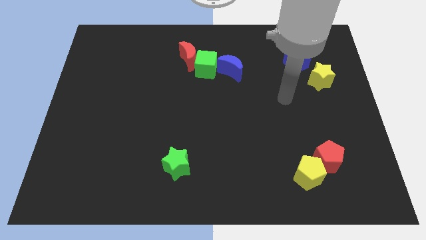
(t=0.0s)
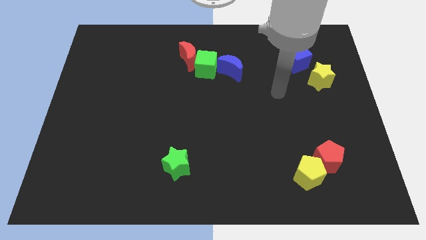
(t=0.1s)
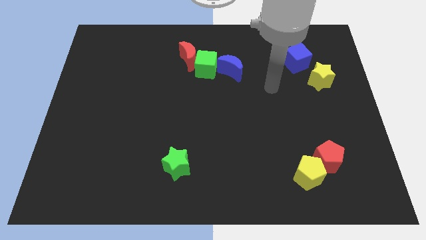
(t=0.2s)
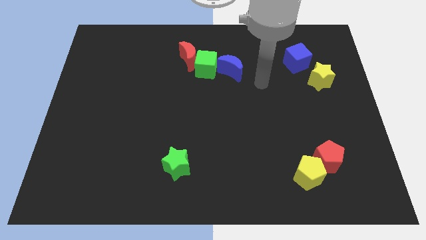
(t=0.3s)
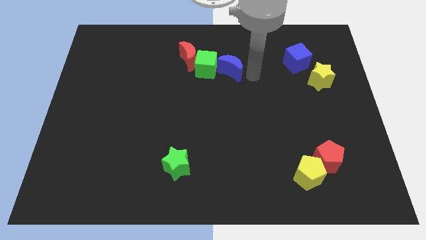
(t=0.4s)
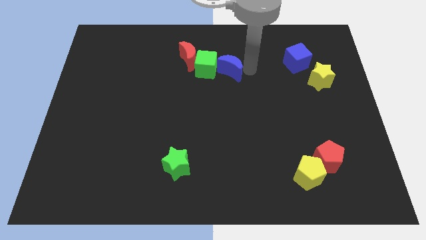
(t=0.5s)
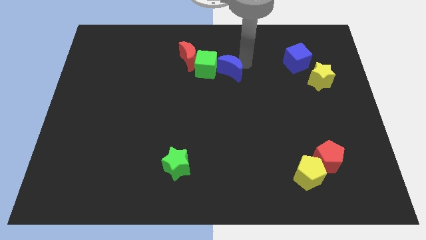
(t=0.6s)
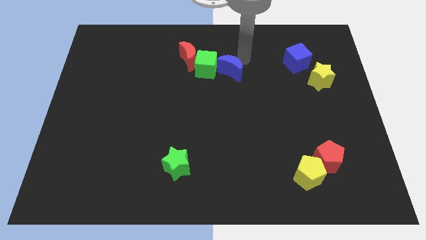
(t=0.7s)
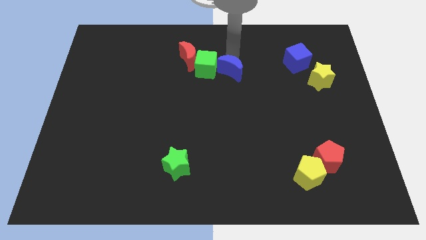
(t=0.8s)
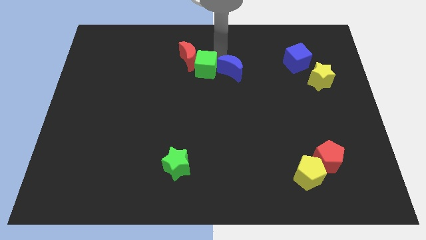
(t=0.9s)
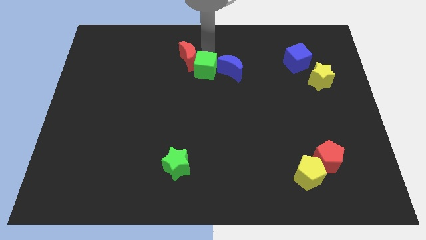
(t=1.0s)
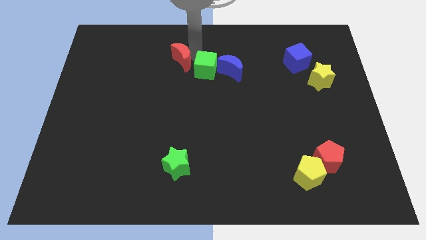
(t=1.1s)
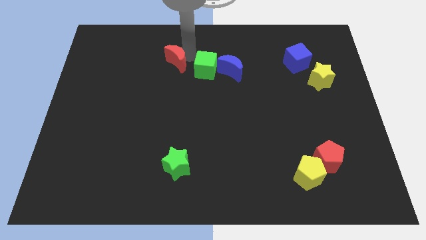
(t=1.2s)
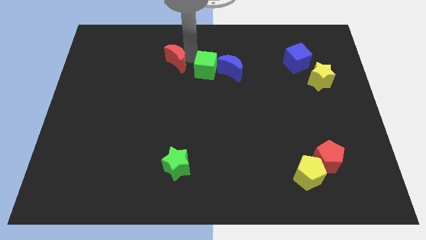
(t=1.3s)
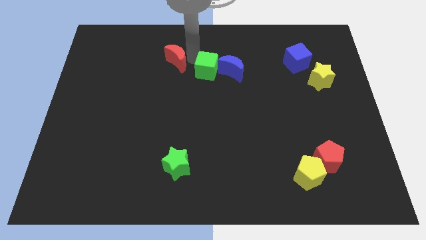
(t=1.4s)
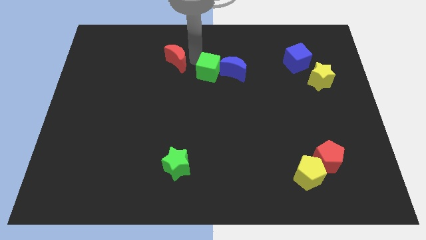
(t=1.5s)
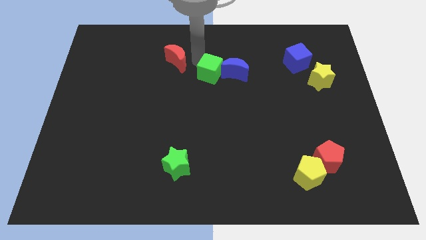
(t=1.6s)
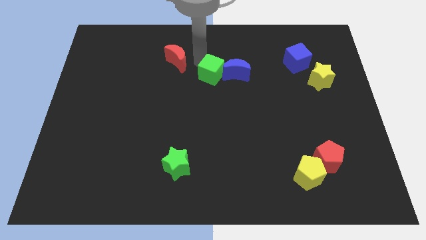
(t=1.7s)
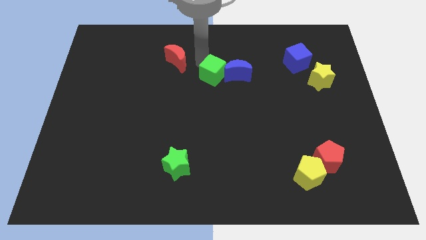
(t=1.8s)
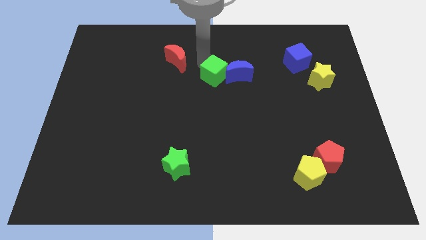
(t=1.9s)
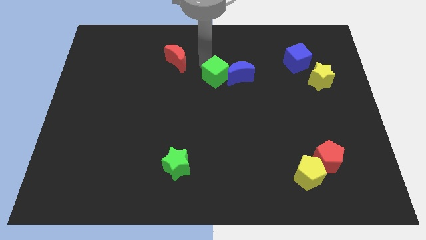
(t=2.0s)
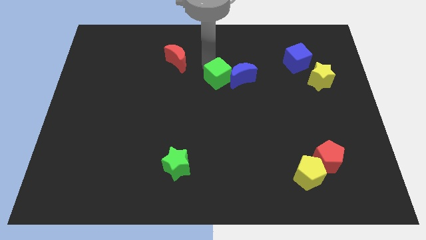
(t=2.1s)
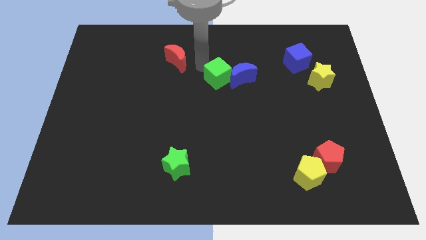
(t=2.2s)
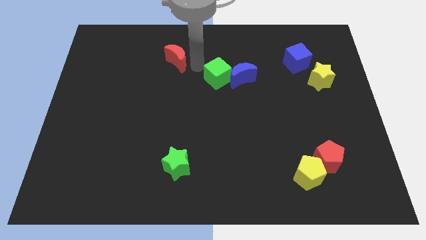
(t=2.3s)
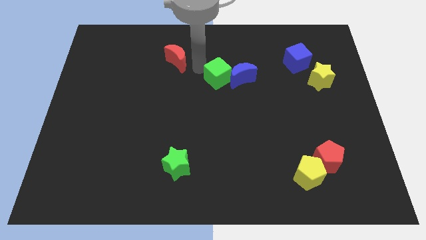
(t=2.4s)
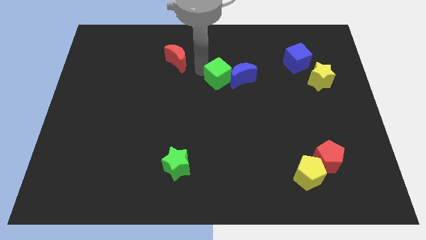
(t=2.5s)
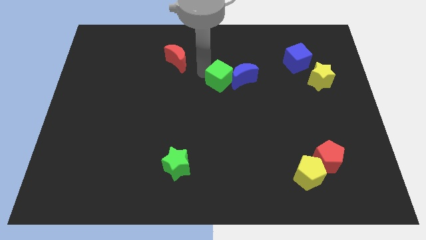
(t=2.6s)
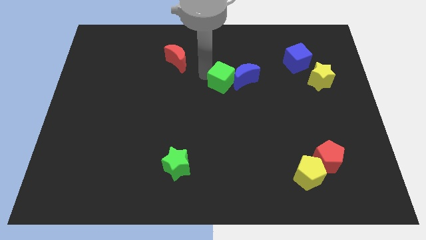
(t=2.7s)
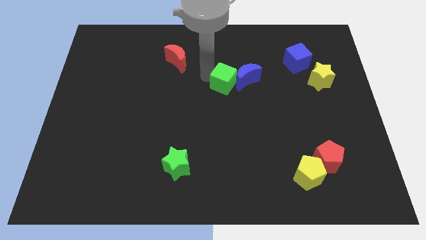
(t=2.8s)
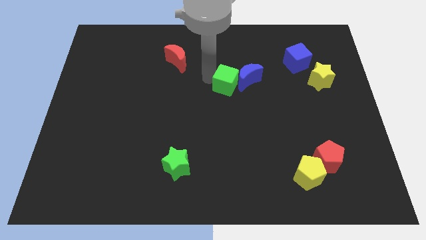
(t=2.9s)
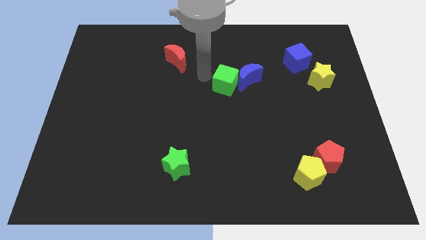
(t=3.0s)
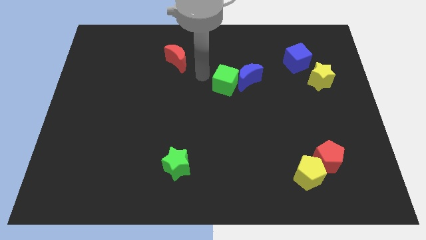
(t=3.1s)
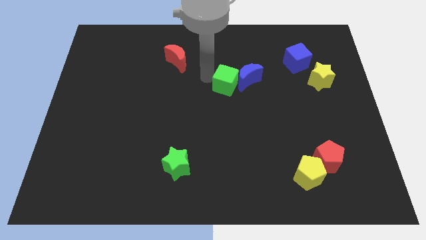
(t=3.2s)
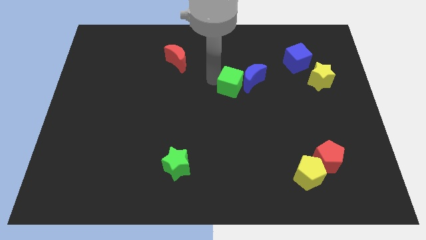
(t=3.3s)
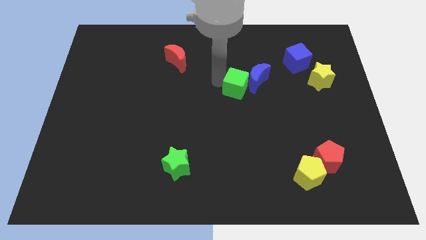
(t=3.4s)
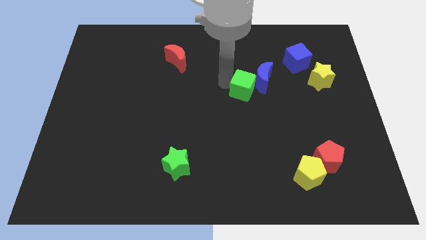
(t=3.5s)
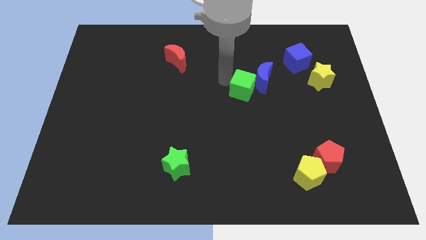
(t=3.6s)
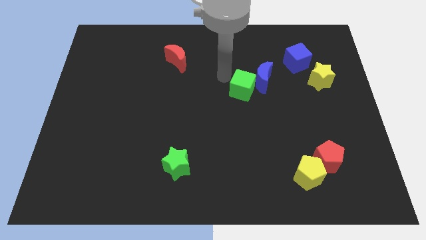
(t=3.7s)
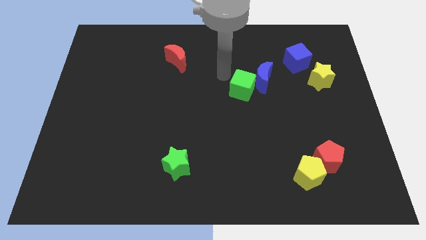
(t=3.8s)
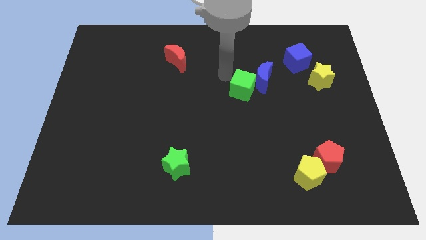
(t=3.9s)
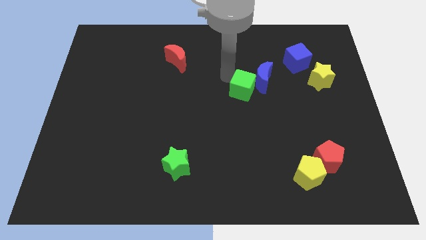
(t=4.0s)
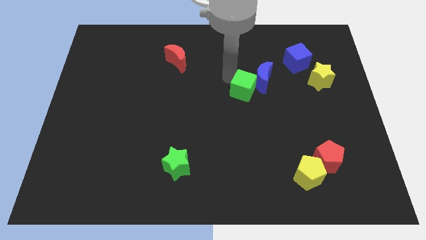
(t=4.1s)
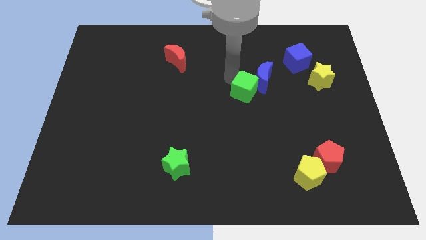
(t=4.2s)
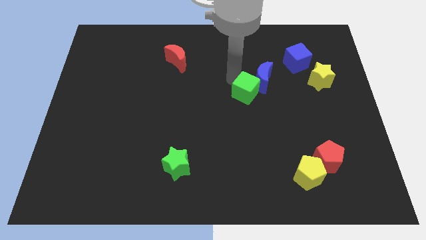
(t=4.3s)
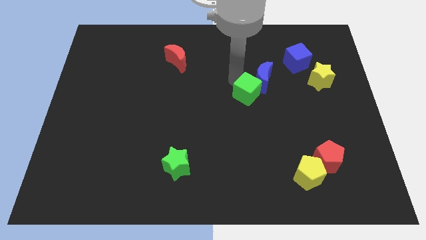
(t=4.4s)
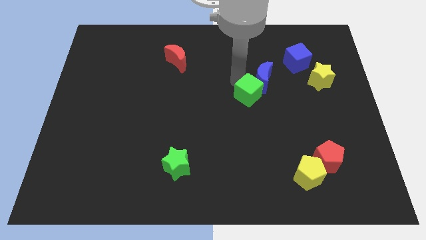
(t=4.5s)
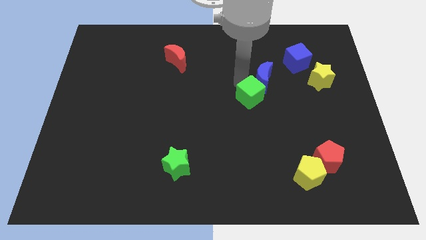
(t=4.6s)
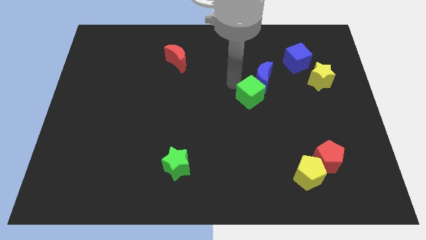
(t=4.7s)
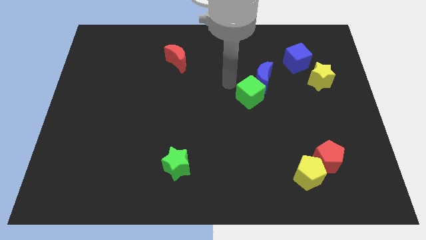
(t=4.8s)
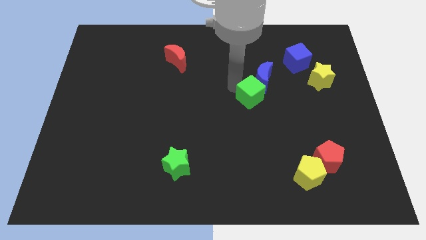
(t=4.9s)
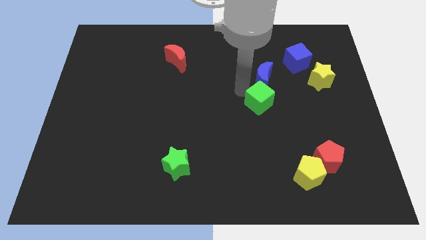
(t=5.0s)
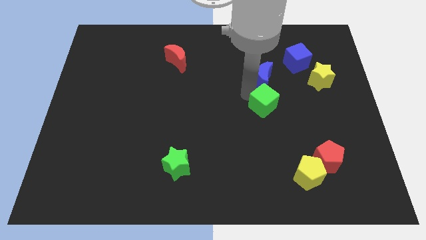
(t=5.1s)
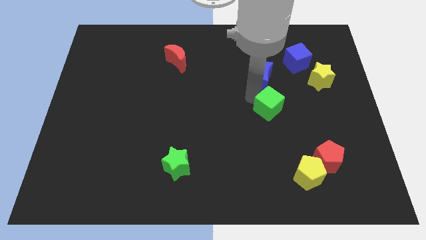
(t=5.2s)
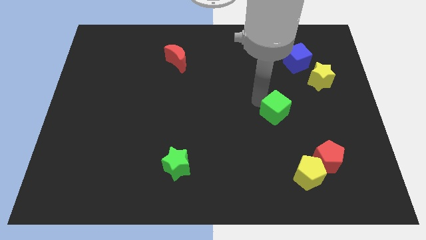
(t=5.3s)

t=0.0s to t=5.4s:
push the green cube down and then right

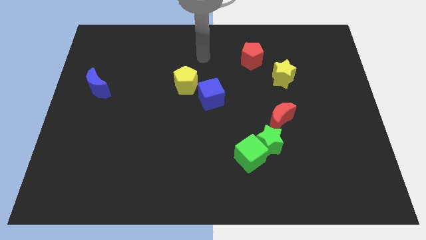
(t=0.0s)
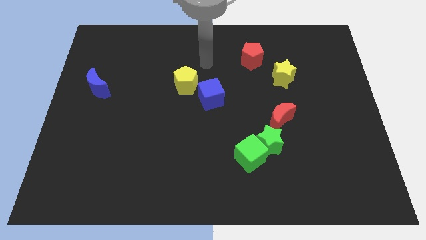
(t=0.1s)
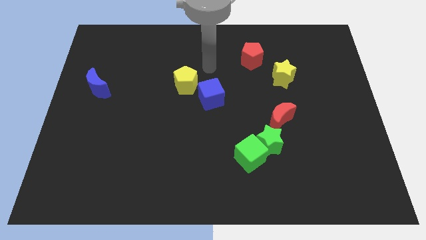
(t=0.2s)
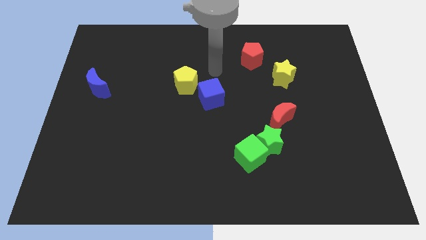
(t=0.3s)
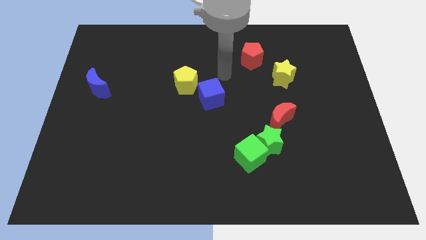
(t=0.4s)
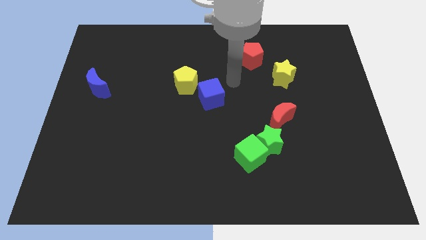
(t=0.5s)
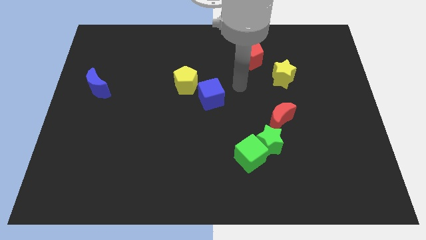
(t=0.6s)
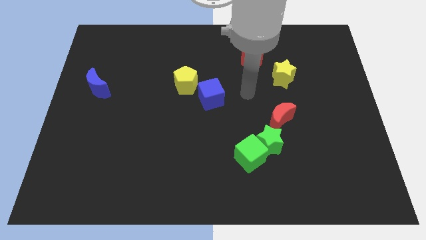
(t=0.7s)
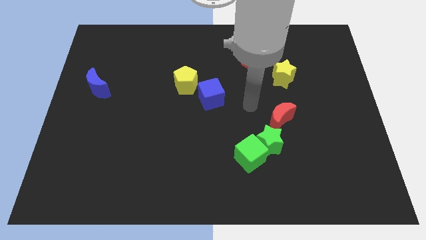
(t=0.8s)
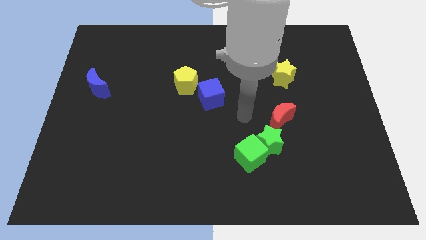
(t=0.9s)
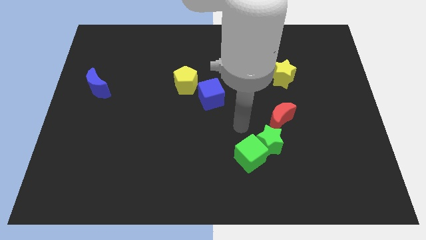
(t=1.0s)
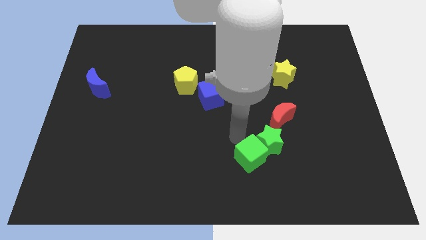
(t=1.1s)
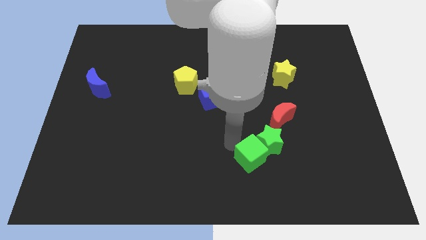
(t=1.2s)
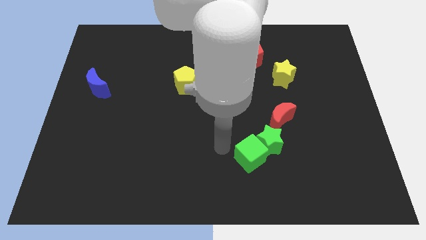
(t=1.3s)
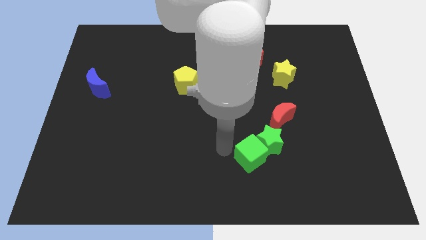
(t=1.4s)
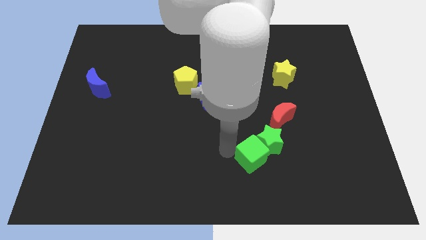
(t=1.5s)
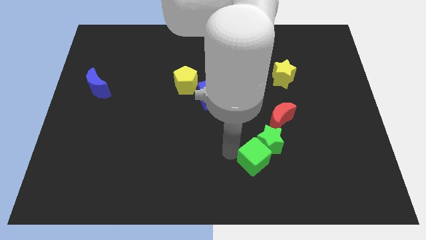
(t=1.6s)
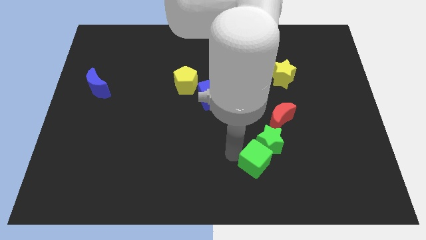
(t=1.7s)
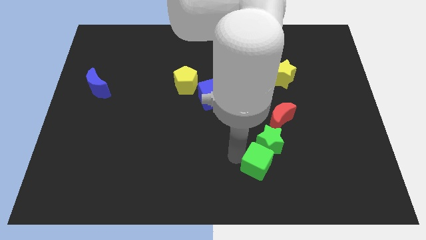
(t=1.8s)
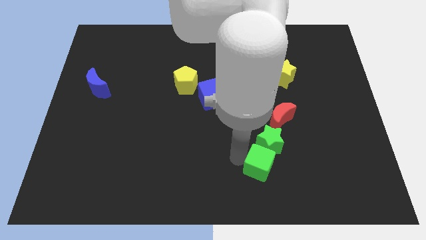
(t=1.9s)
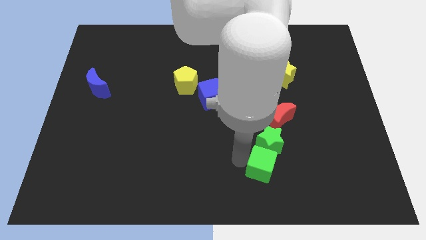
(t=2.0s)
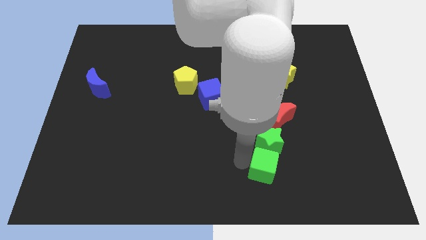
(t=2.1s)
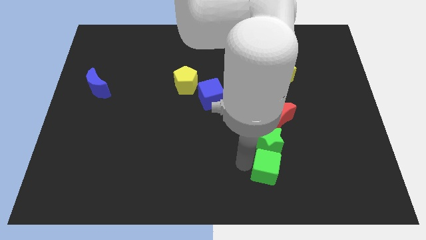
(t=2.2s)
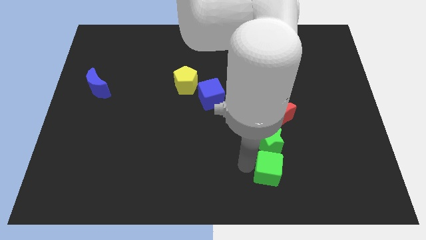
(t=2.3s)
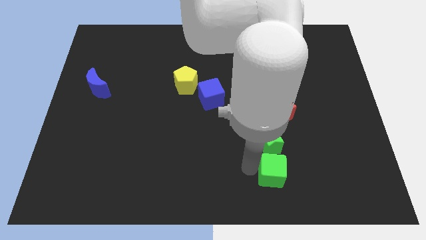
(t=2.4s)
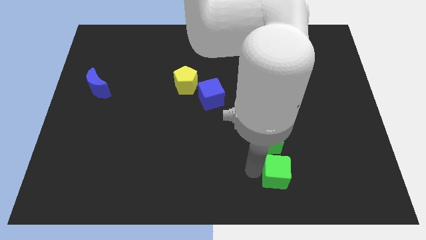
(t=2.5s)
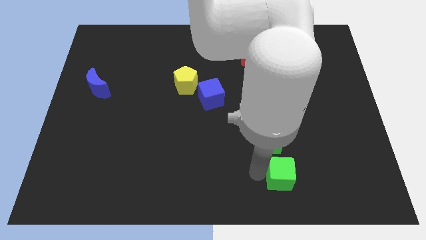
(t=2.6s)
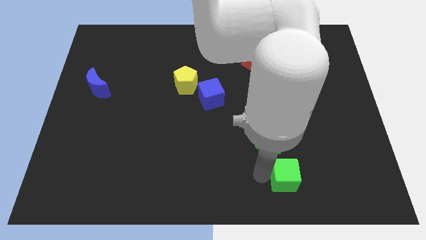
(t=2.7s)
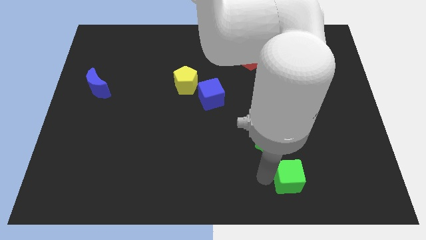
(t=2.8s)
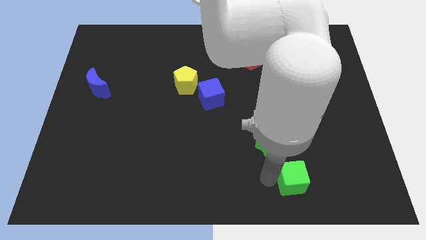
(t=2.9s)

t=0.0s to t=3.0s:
move the green cube right somewhat
